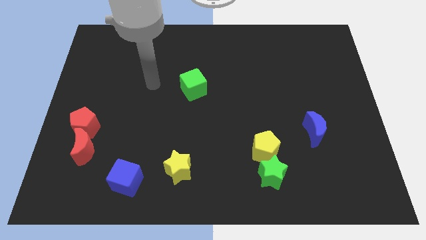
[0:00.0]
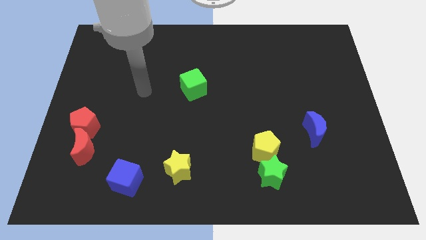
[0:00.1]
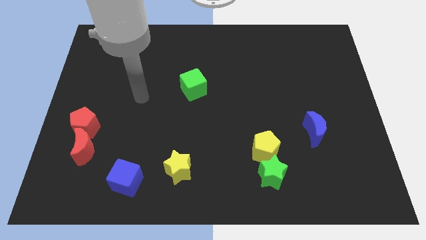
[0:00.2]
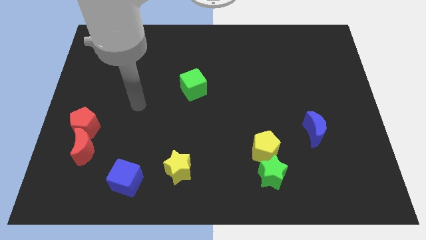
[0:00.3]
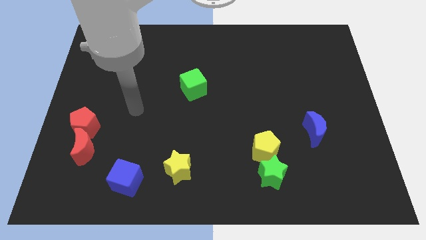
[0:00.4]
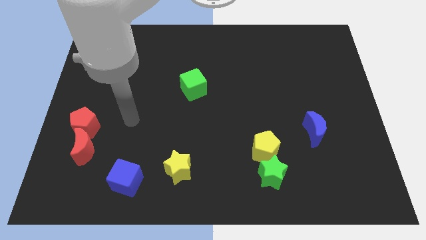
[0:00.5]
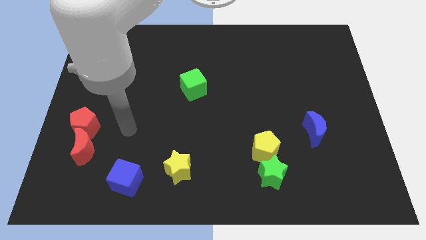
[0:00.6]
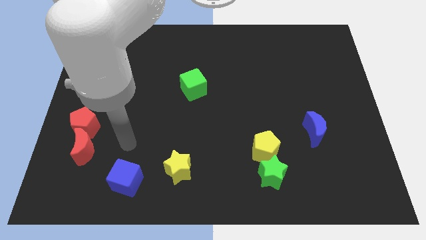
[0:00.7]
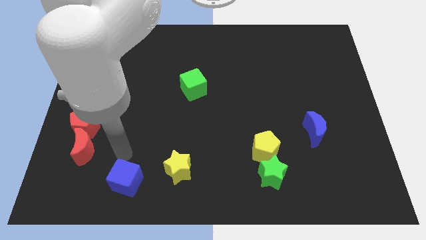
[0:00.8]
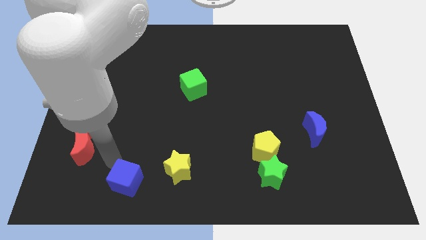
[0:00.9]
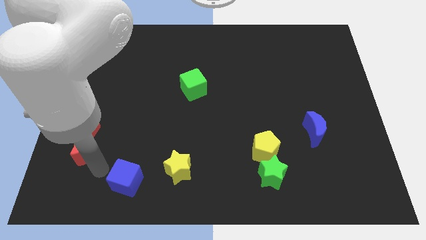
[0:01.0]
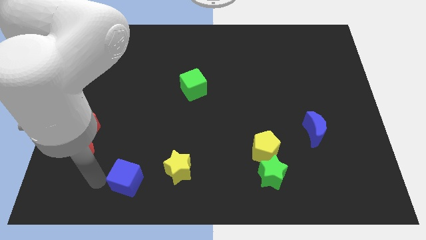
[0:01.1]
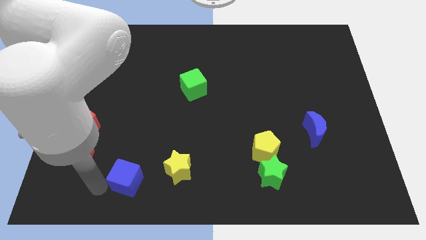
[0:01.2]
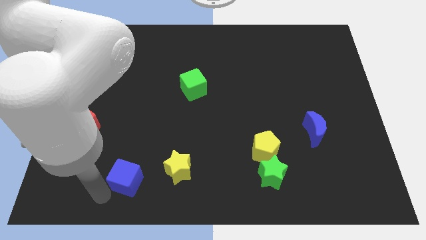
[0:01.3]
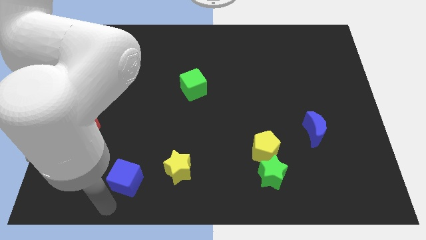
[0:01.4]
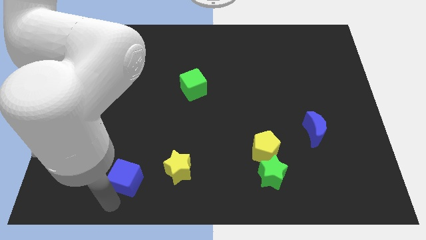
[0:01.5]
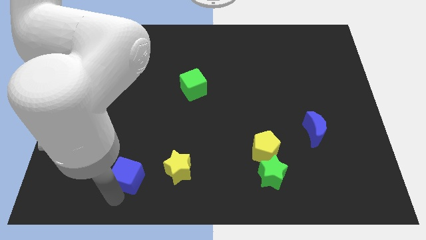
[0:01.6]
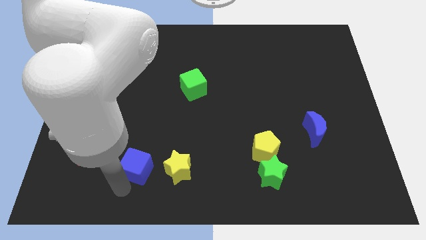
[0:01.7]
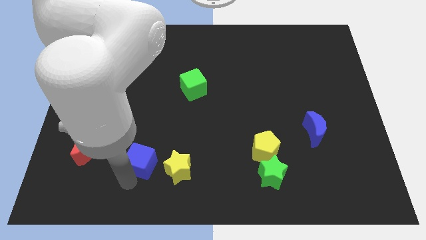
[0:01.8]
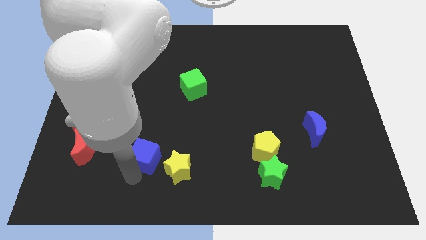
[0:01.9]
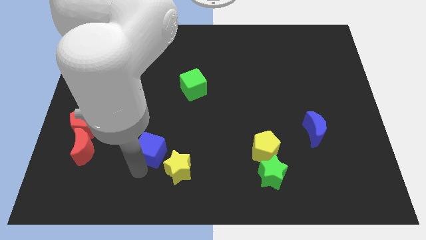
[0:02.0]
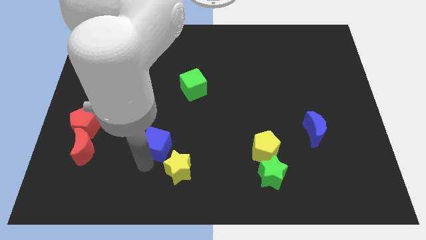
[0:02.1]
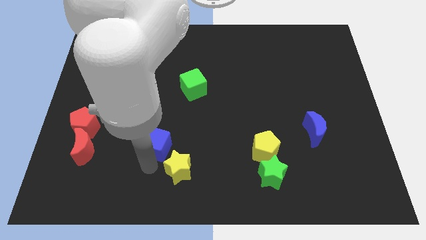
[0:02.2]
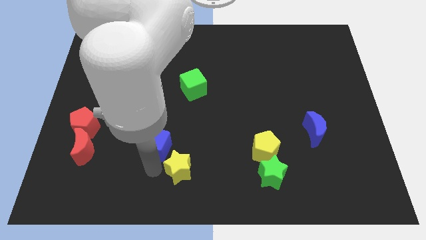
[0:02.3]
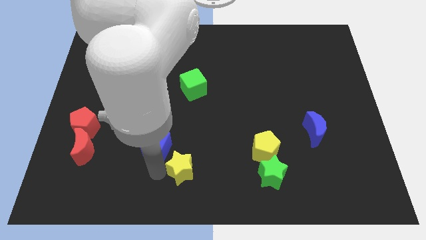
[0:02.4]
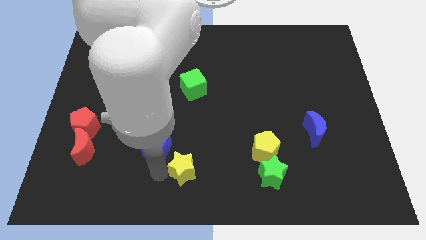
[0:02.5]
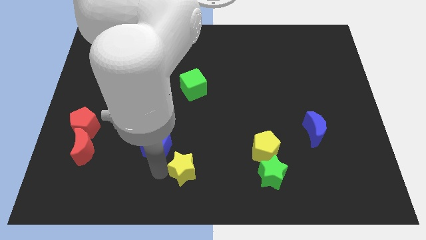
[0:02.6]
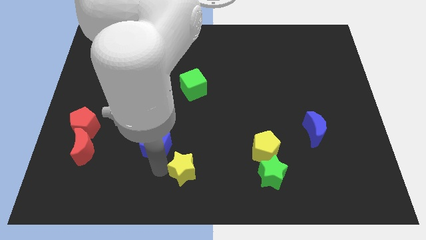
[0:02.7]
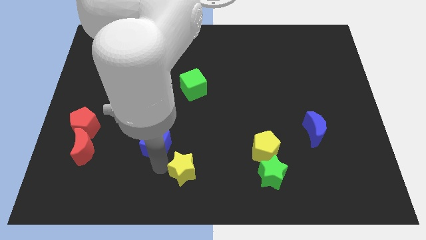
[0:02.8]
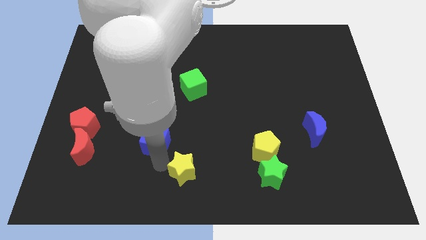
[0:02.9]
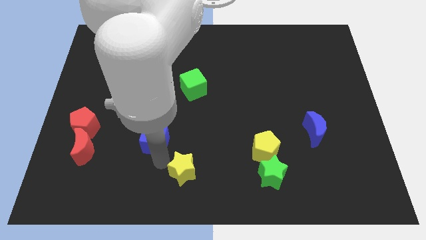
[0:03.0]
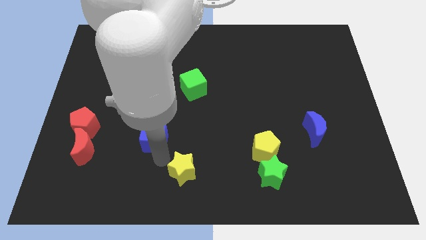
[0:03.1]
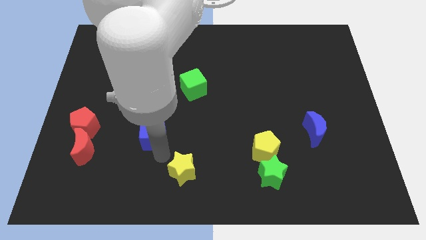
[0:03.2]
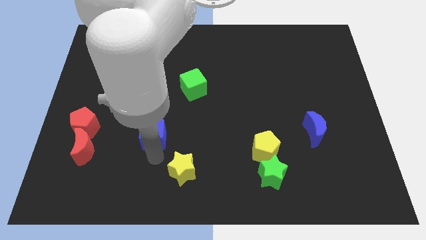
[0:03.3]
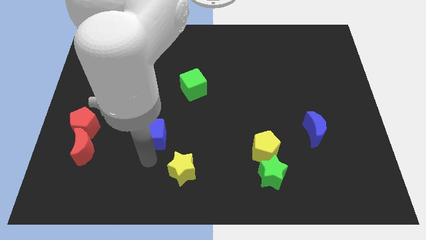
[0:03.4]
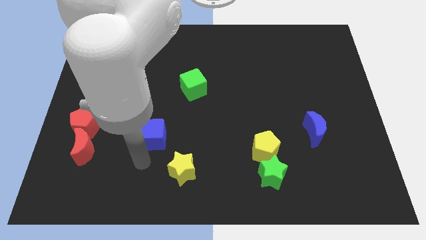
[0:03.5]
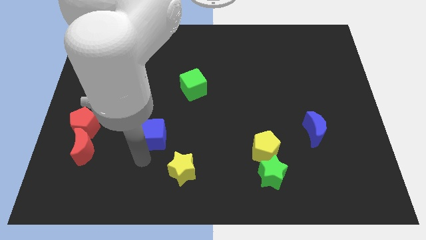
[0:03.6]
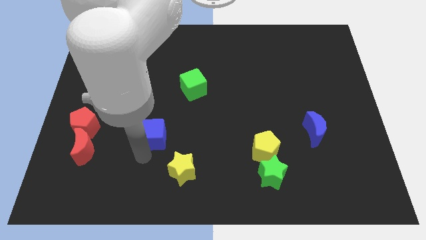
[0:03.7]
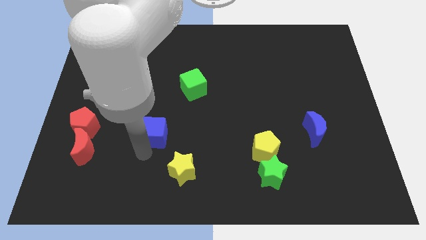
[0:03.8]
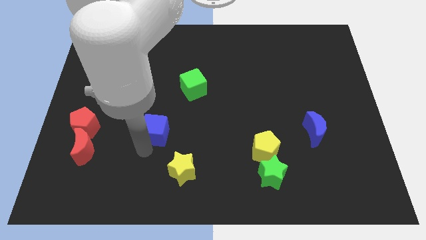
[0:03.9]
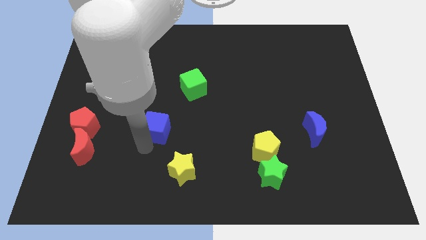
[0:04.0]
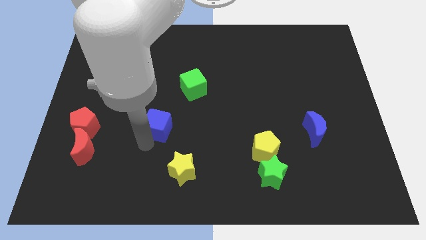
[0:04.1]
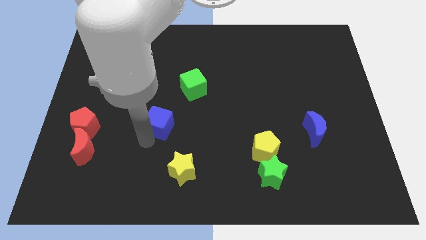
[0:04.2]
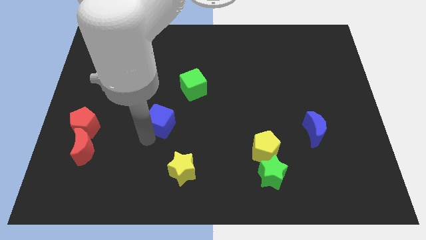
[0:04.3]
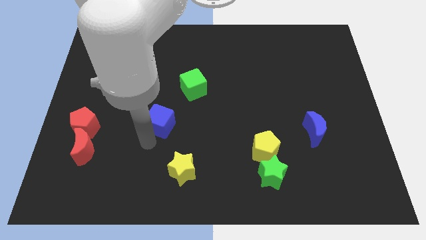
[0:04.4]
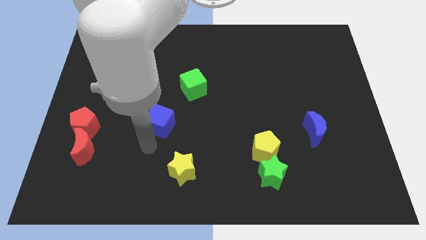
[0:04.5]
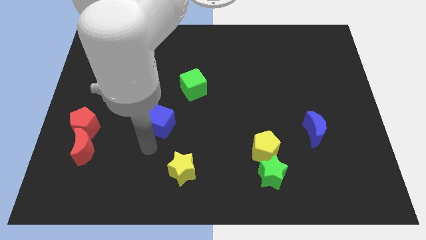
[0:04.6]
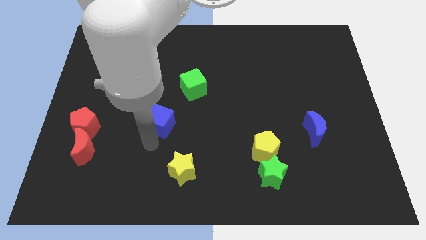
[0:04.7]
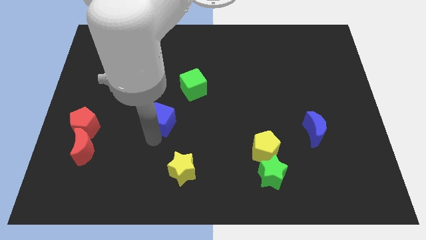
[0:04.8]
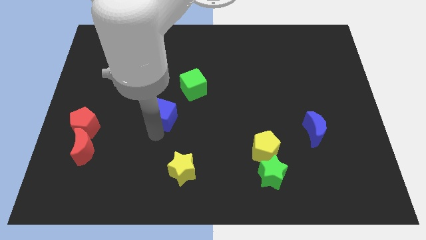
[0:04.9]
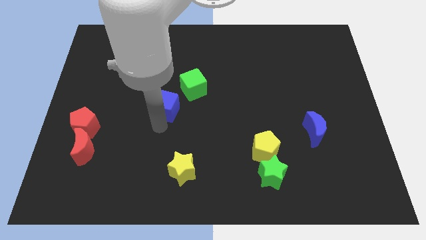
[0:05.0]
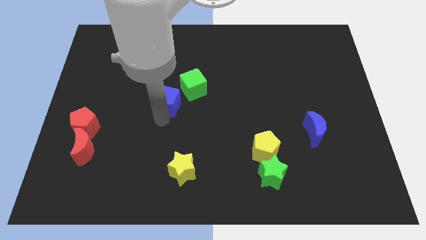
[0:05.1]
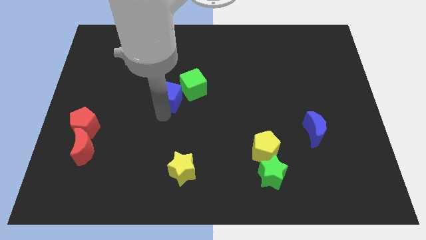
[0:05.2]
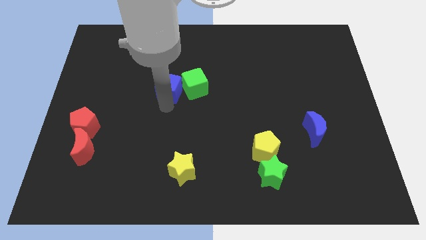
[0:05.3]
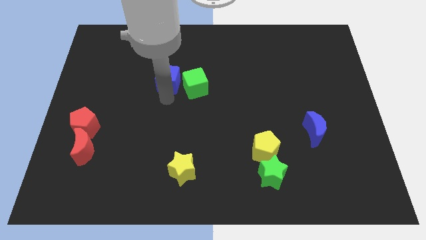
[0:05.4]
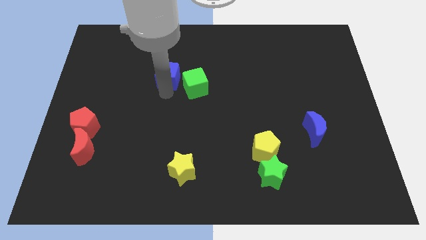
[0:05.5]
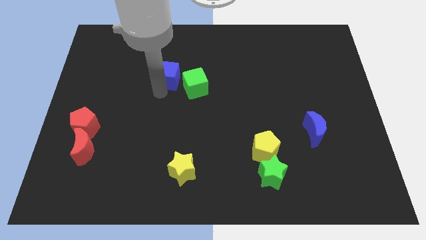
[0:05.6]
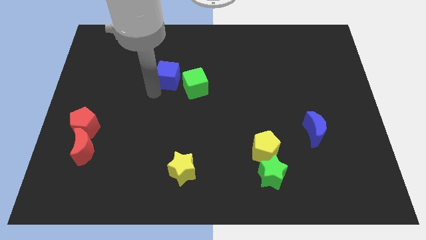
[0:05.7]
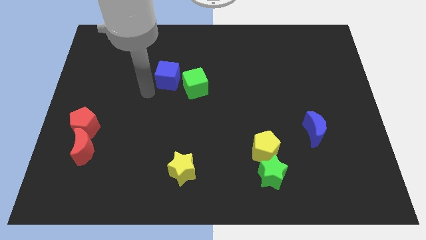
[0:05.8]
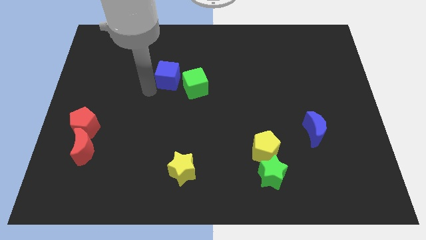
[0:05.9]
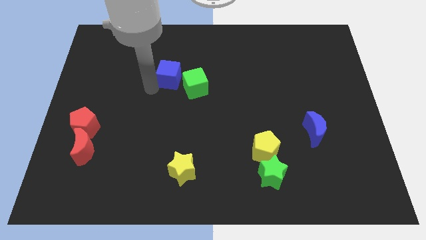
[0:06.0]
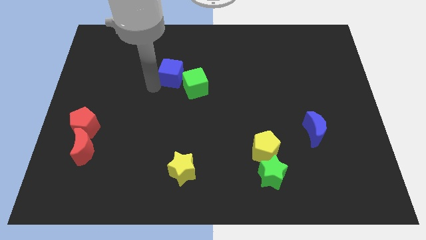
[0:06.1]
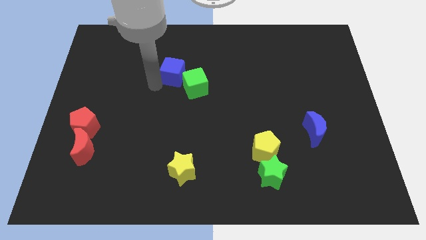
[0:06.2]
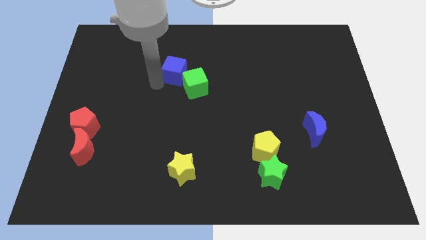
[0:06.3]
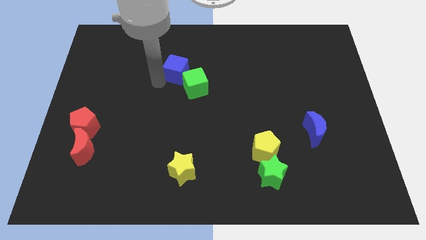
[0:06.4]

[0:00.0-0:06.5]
slide the blue cube above the green cube

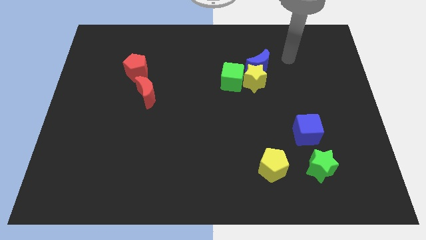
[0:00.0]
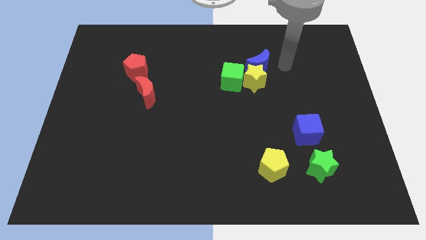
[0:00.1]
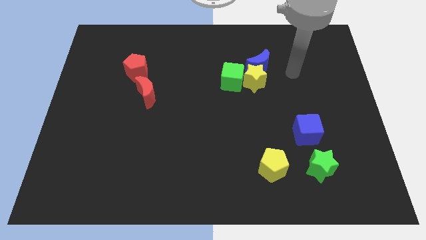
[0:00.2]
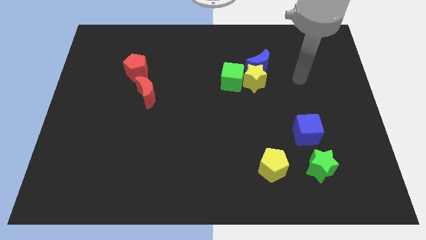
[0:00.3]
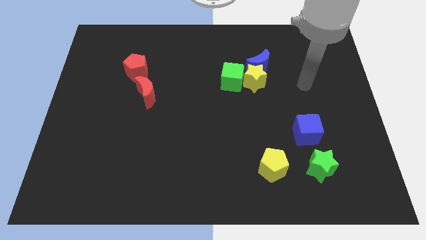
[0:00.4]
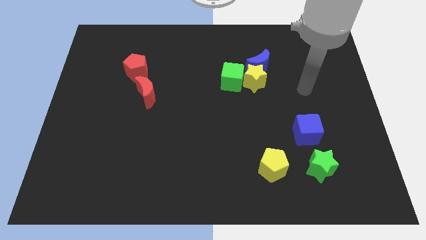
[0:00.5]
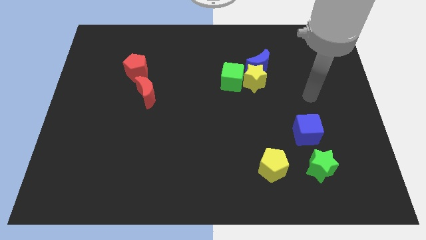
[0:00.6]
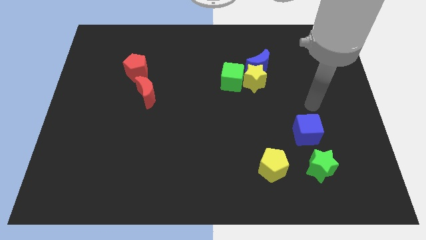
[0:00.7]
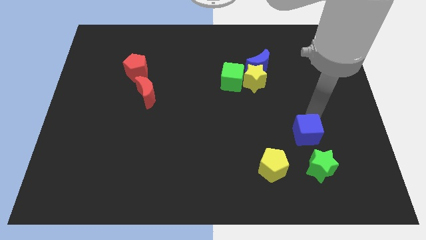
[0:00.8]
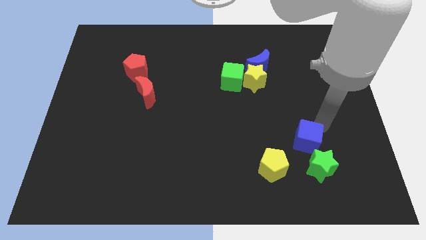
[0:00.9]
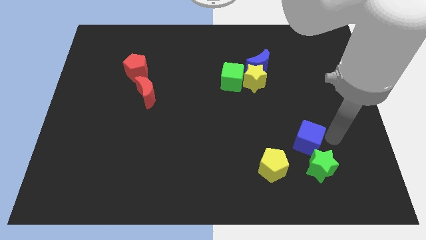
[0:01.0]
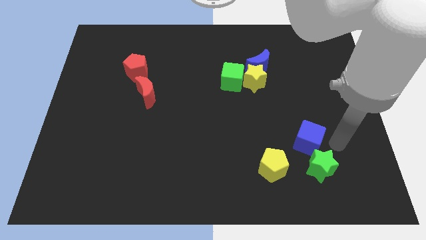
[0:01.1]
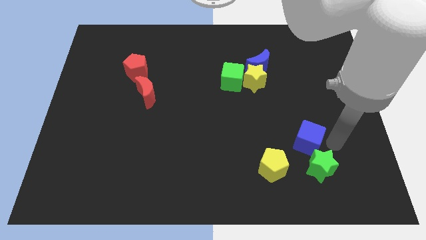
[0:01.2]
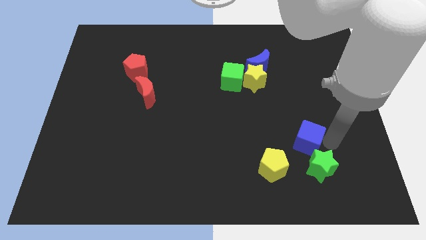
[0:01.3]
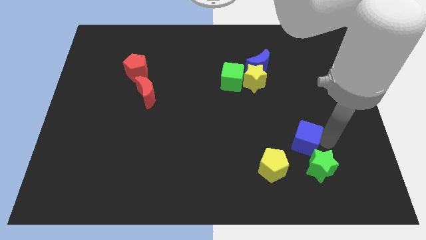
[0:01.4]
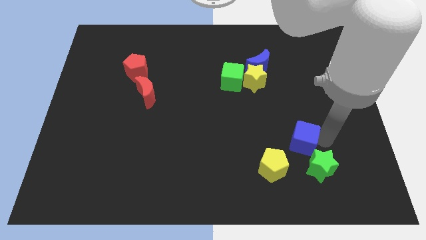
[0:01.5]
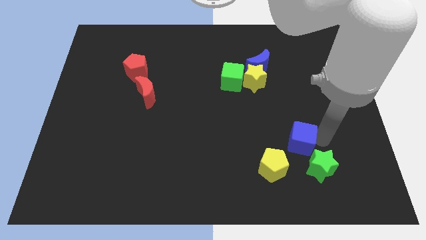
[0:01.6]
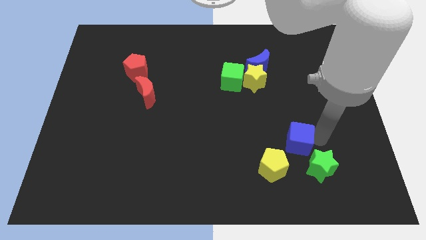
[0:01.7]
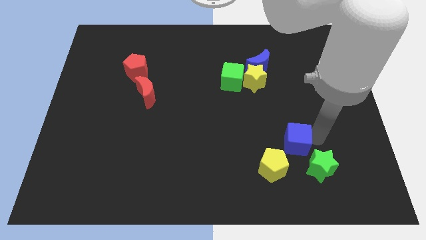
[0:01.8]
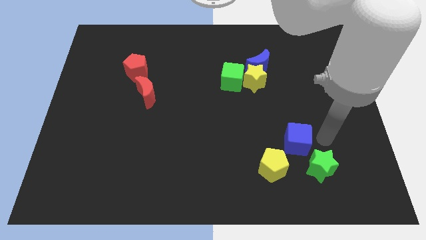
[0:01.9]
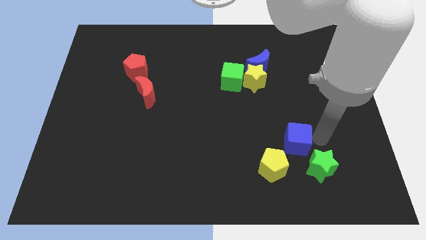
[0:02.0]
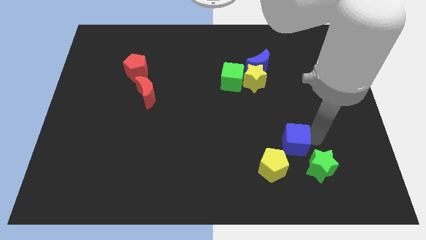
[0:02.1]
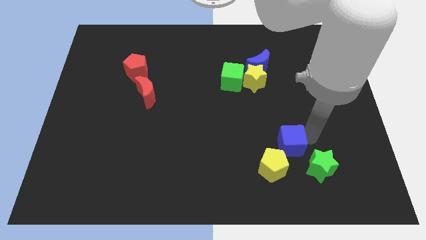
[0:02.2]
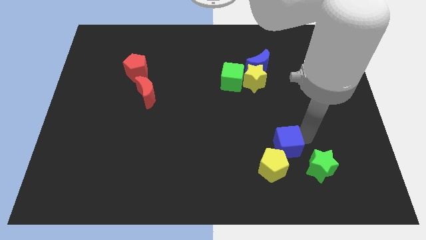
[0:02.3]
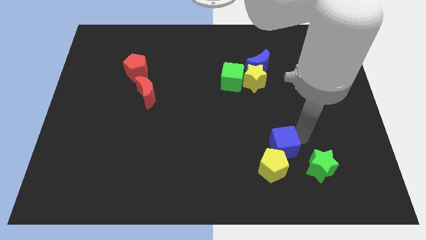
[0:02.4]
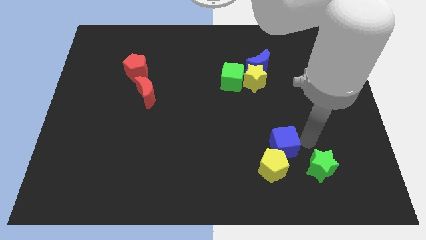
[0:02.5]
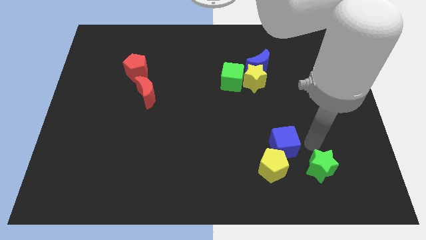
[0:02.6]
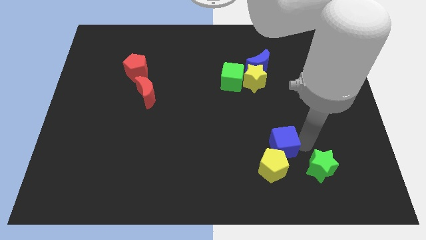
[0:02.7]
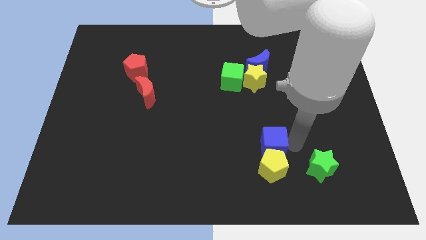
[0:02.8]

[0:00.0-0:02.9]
push the blue cube to the top left of the yellow pentagon
